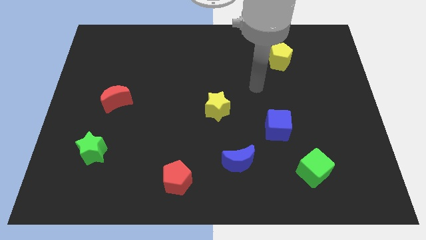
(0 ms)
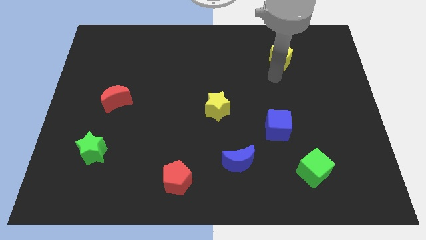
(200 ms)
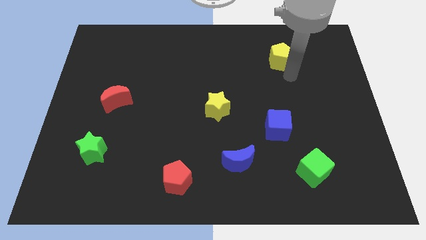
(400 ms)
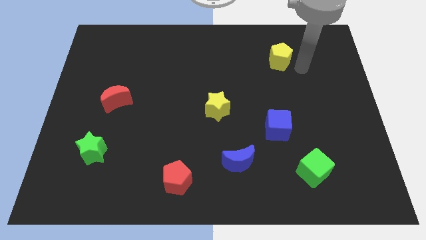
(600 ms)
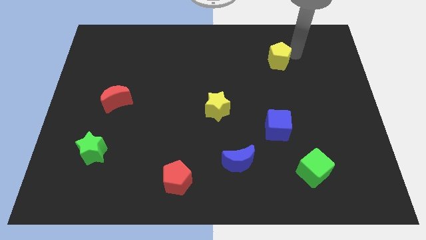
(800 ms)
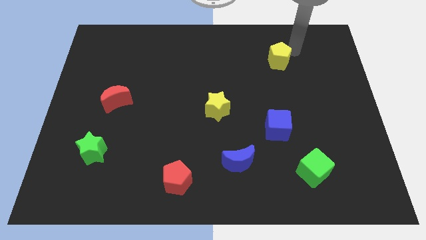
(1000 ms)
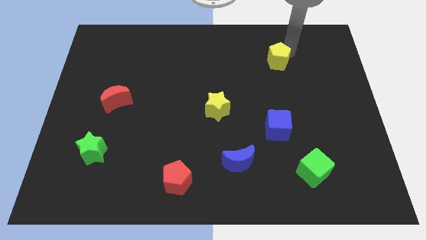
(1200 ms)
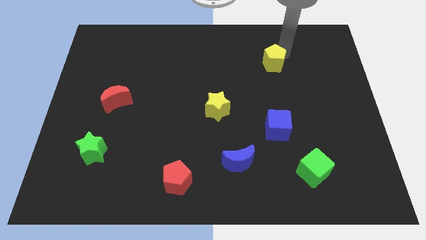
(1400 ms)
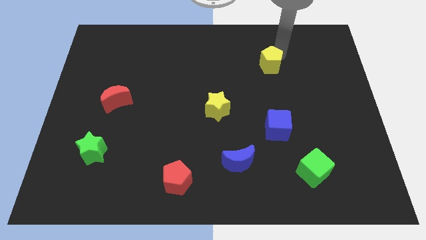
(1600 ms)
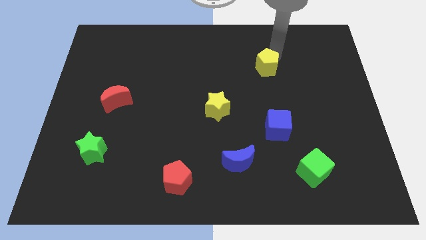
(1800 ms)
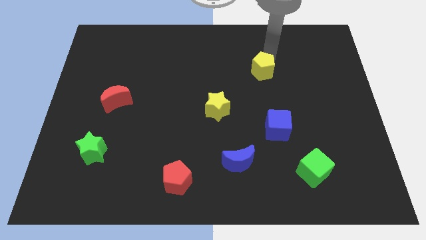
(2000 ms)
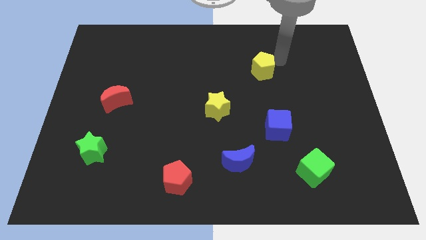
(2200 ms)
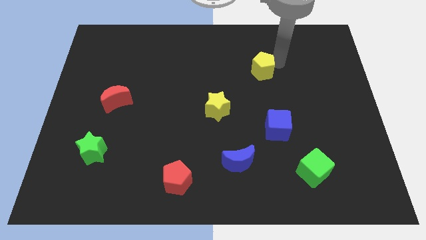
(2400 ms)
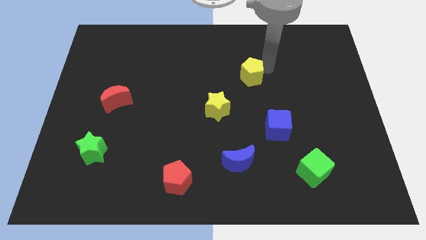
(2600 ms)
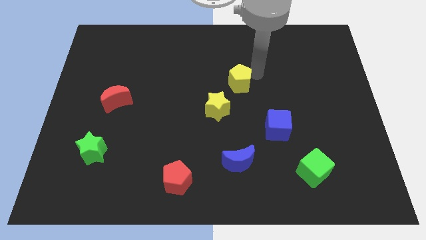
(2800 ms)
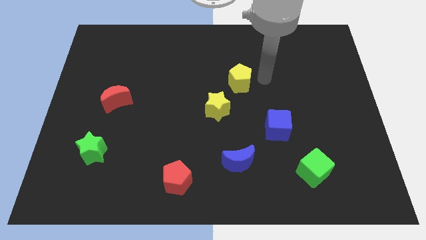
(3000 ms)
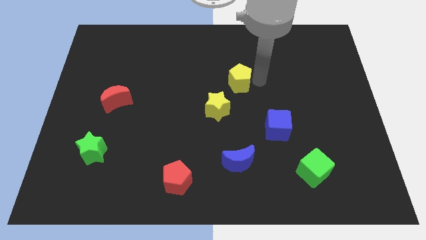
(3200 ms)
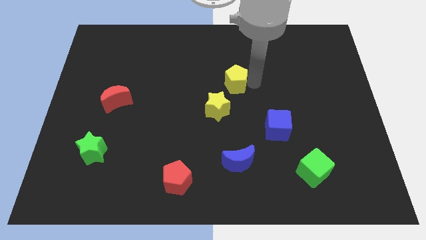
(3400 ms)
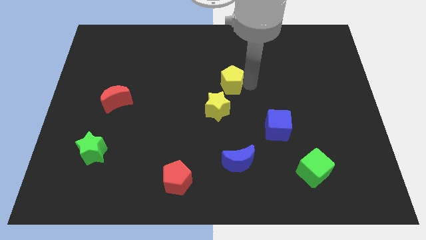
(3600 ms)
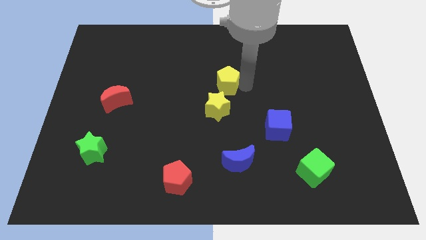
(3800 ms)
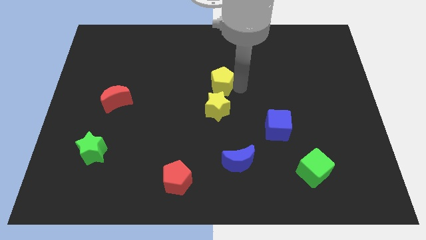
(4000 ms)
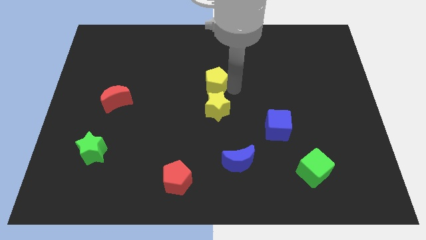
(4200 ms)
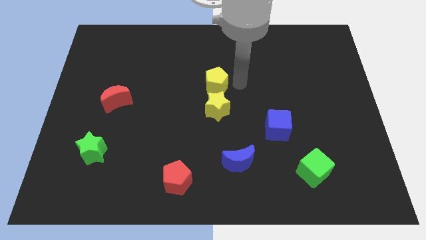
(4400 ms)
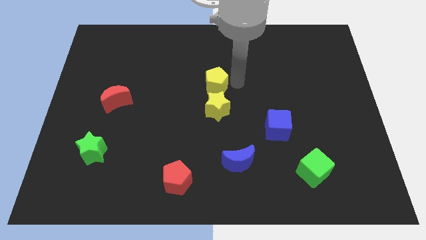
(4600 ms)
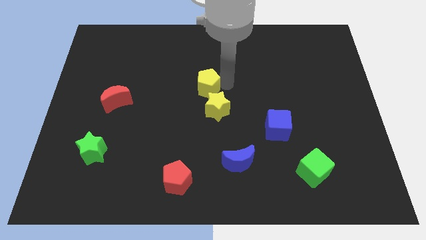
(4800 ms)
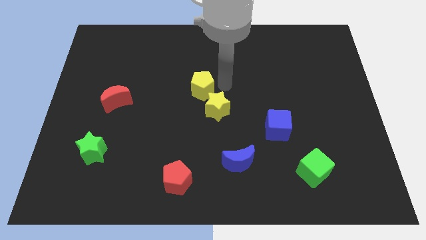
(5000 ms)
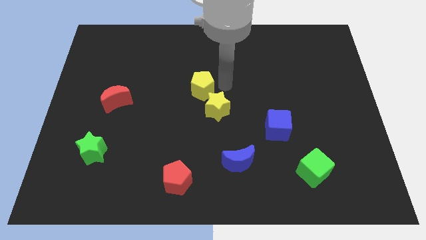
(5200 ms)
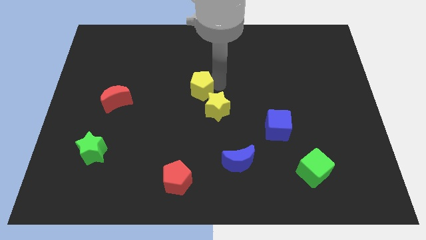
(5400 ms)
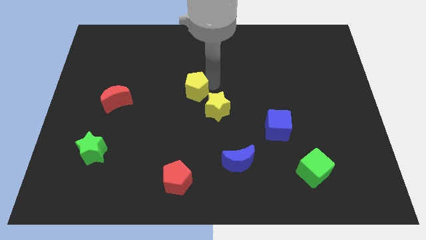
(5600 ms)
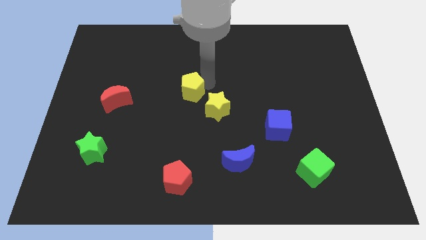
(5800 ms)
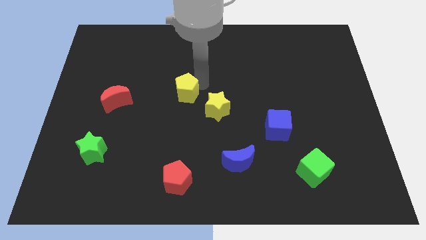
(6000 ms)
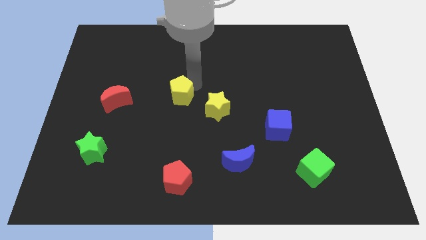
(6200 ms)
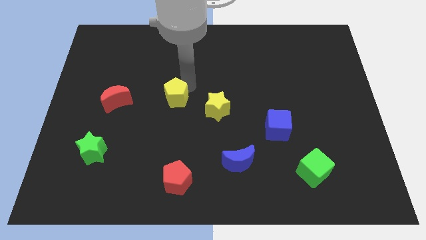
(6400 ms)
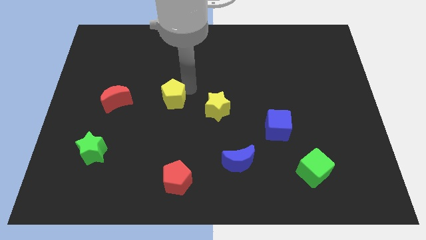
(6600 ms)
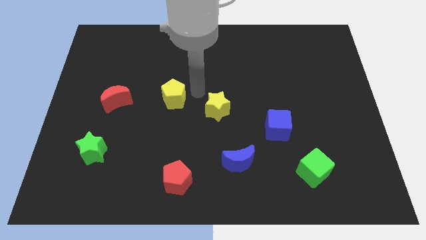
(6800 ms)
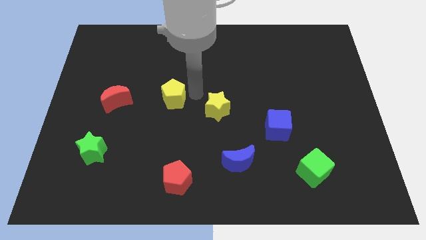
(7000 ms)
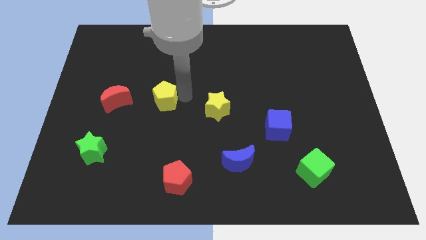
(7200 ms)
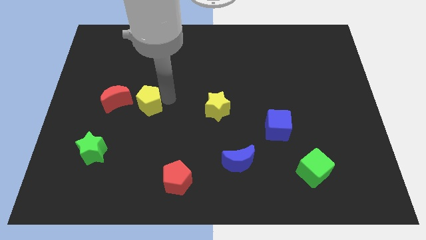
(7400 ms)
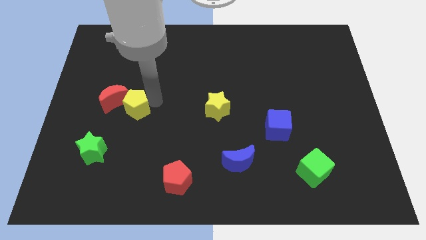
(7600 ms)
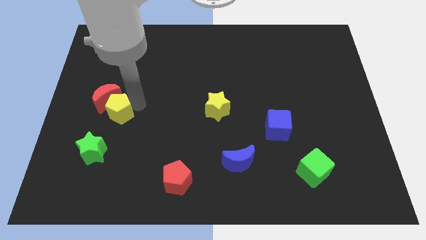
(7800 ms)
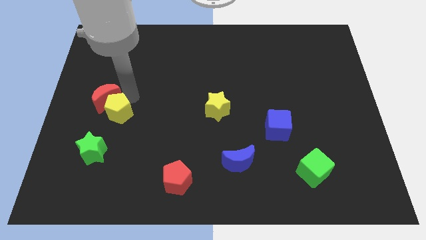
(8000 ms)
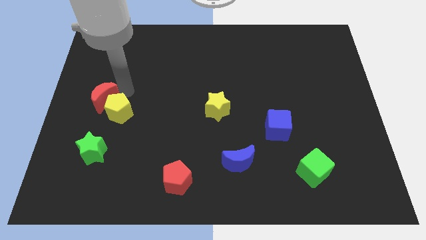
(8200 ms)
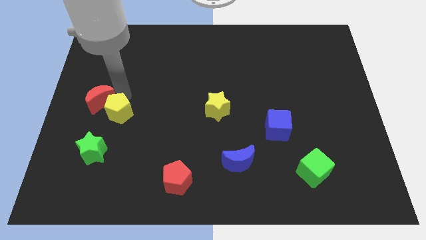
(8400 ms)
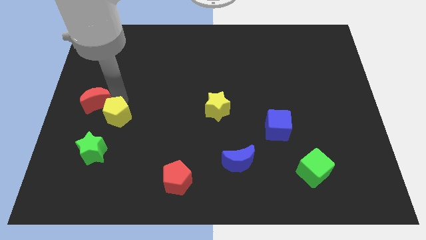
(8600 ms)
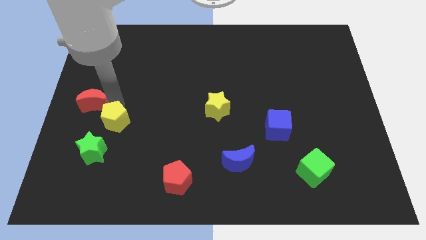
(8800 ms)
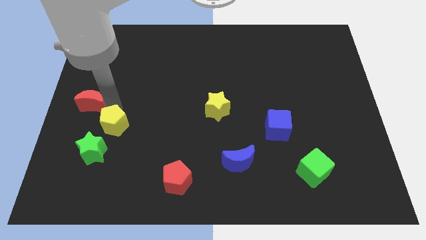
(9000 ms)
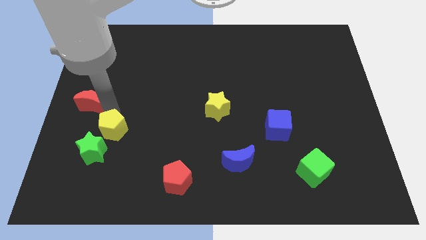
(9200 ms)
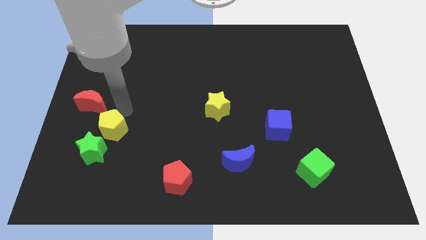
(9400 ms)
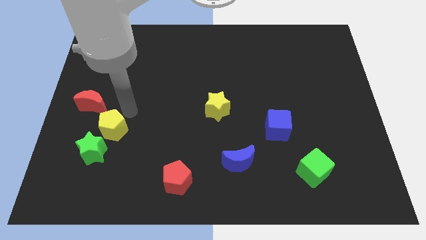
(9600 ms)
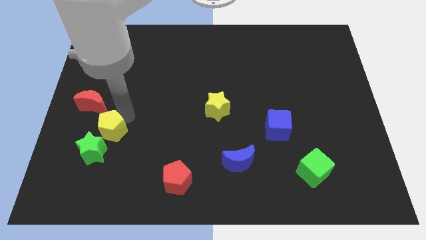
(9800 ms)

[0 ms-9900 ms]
slide the yellow pentagon towards the green star

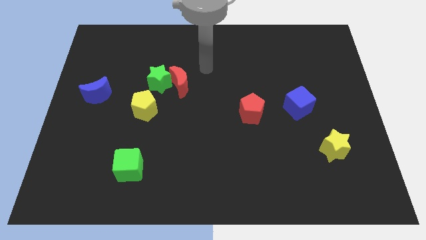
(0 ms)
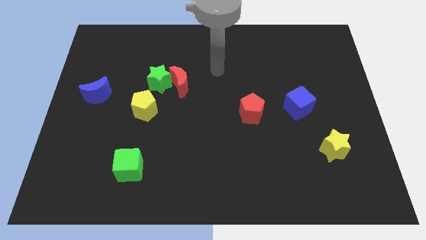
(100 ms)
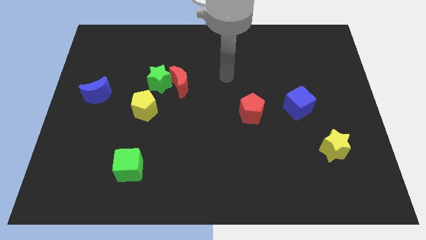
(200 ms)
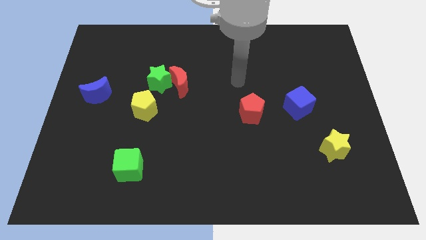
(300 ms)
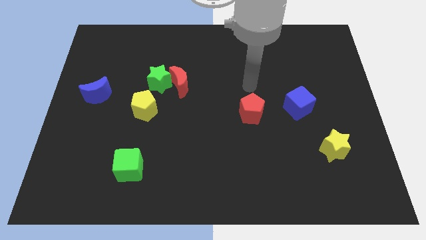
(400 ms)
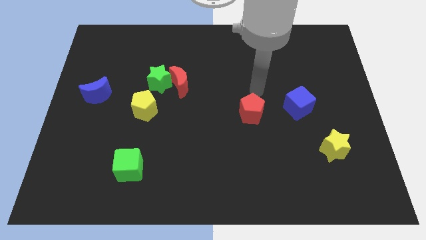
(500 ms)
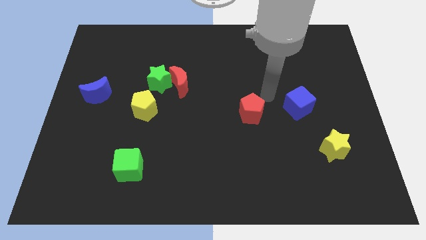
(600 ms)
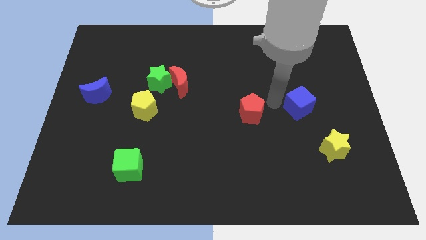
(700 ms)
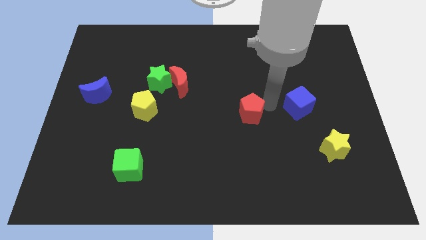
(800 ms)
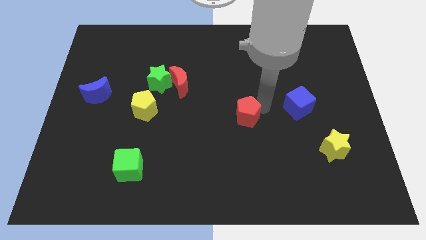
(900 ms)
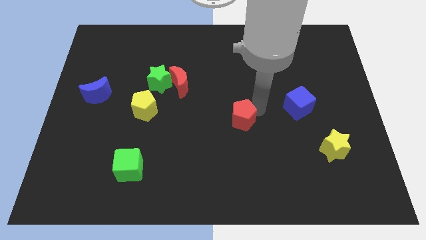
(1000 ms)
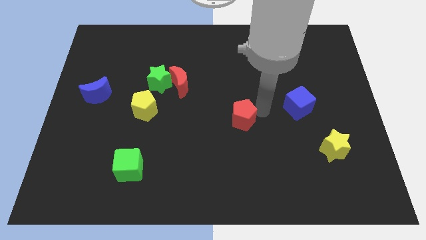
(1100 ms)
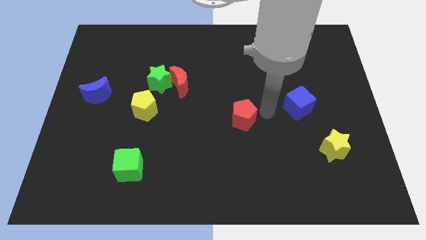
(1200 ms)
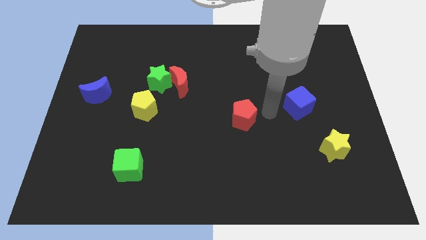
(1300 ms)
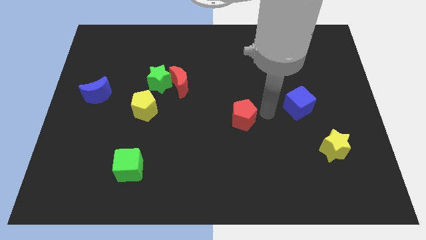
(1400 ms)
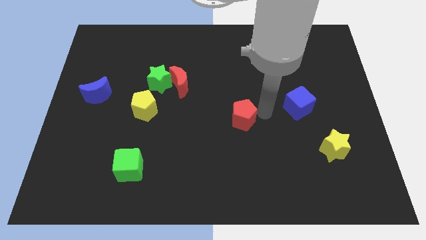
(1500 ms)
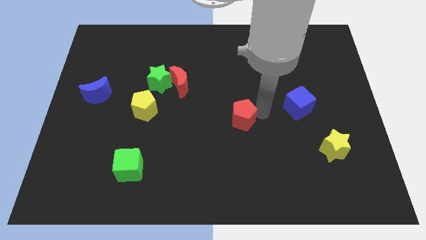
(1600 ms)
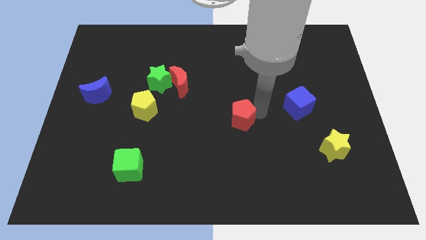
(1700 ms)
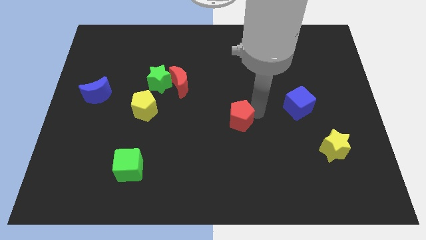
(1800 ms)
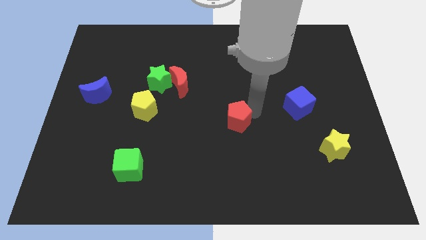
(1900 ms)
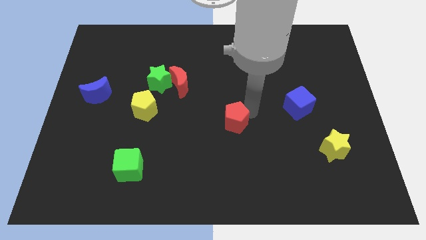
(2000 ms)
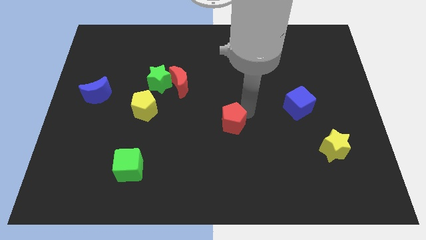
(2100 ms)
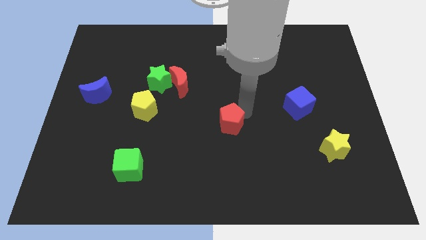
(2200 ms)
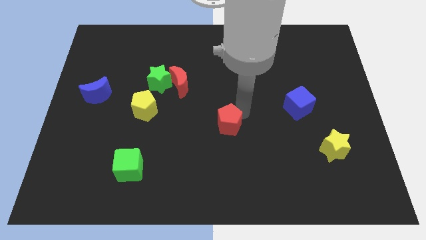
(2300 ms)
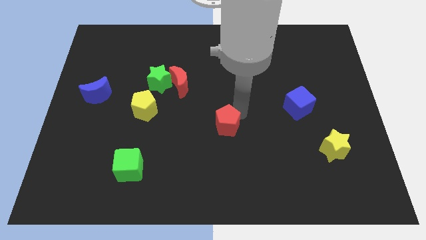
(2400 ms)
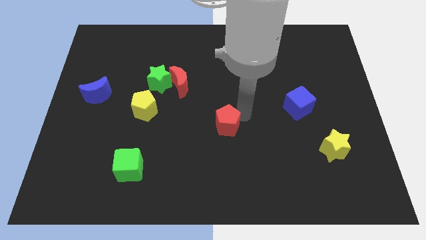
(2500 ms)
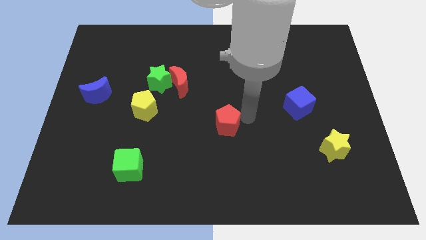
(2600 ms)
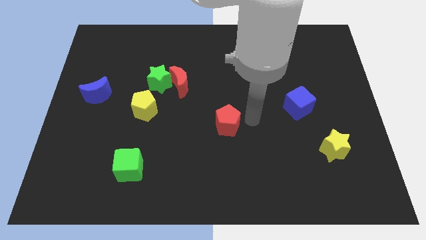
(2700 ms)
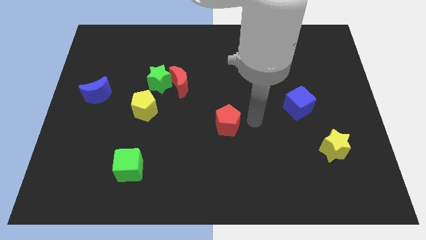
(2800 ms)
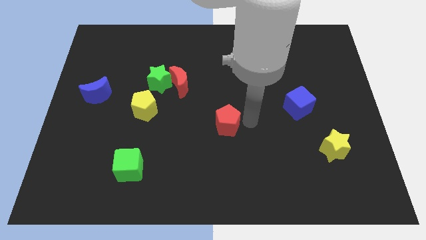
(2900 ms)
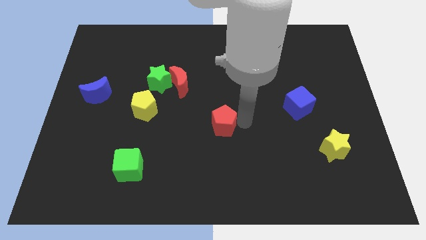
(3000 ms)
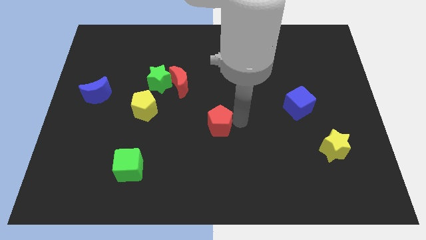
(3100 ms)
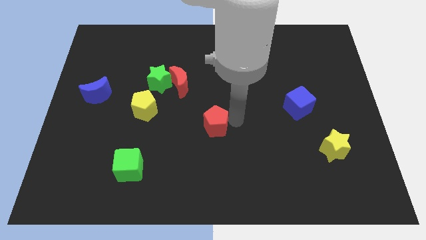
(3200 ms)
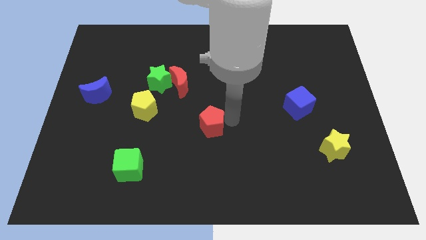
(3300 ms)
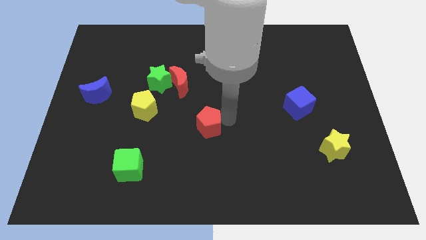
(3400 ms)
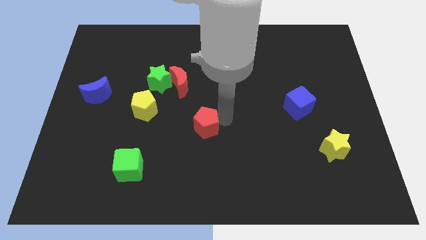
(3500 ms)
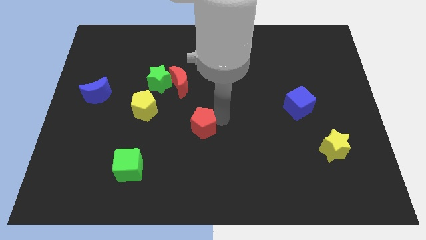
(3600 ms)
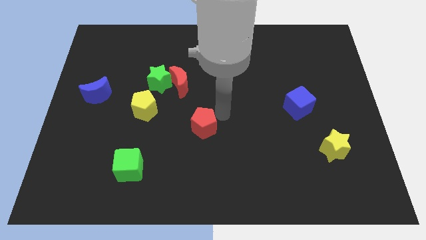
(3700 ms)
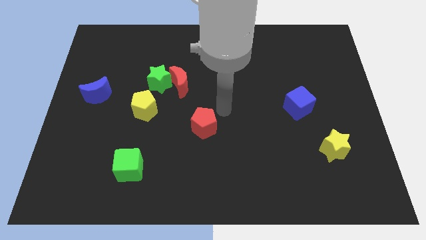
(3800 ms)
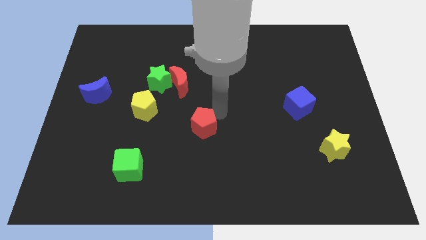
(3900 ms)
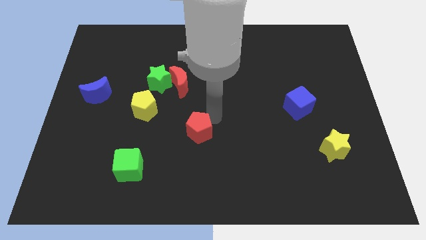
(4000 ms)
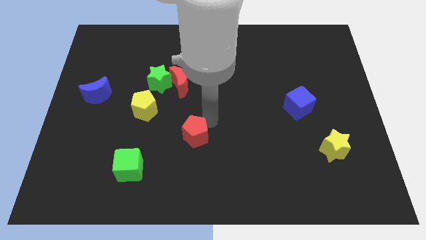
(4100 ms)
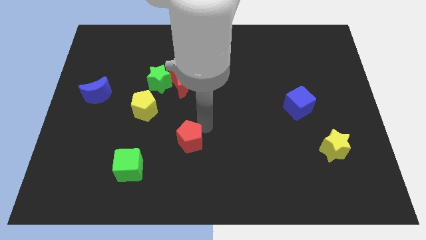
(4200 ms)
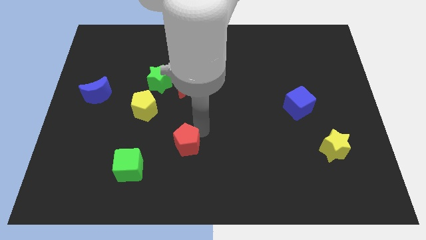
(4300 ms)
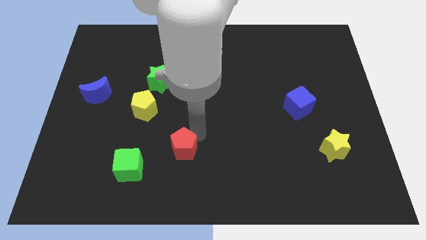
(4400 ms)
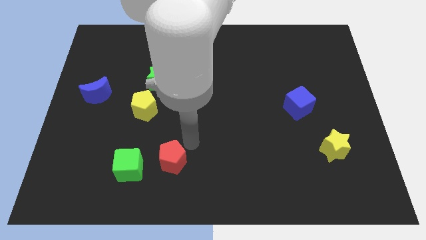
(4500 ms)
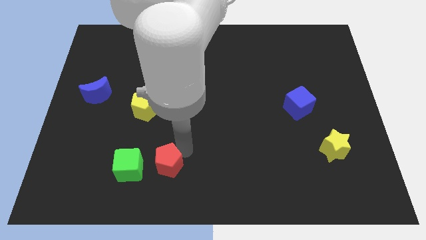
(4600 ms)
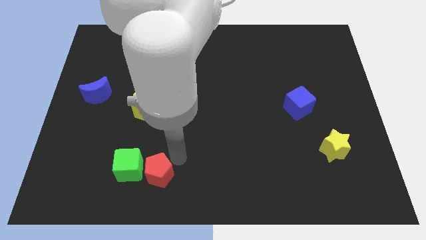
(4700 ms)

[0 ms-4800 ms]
put the red pentagon towards the green cube
